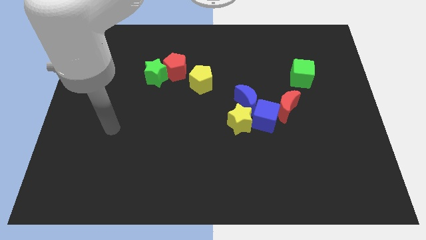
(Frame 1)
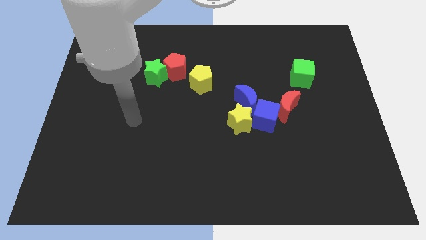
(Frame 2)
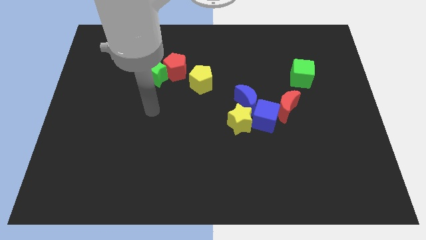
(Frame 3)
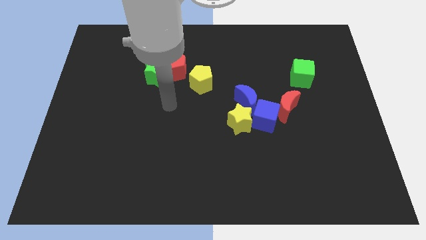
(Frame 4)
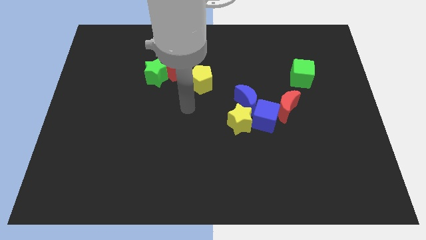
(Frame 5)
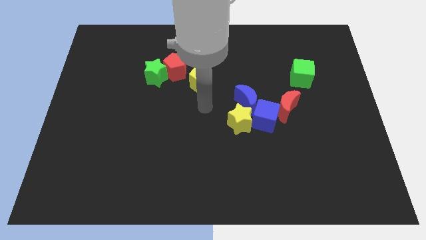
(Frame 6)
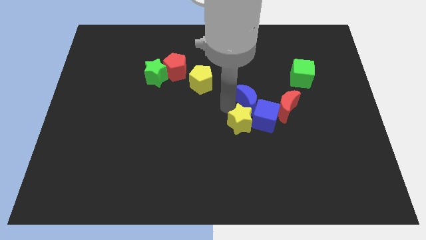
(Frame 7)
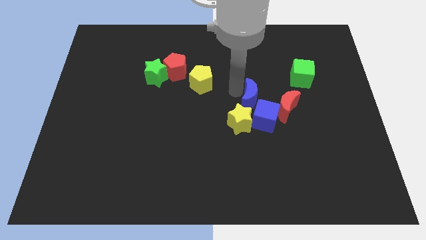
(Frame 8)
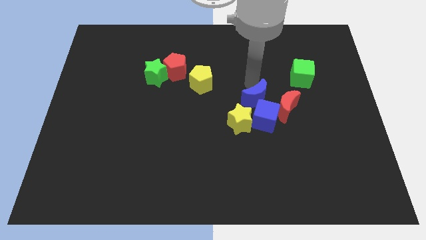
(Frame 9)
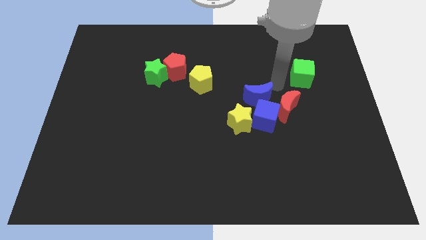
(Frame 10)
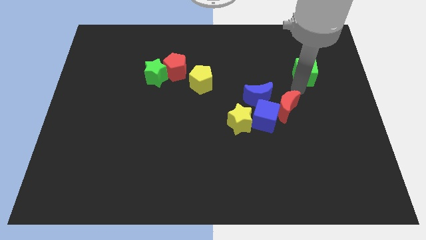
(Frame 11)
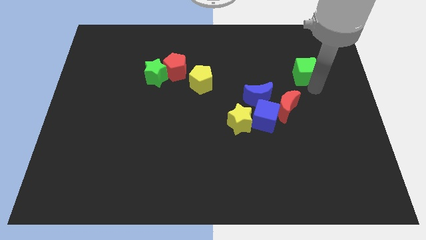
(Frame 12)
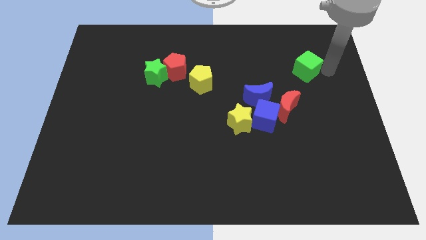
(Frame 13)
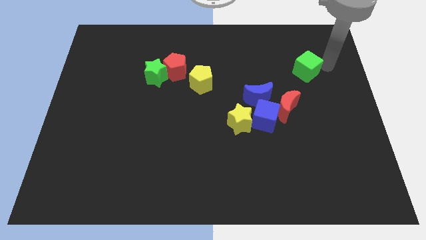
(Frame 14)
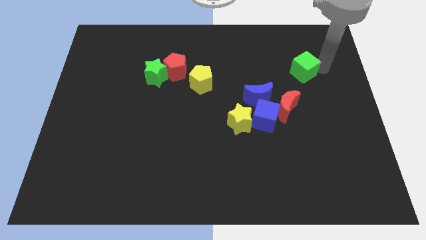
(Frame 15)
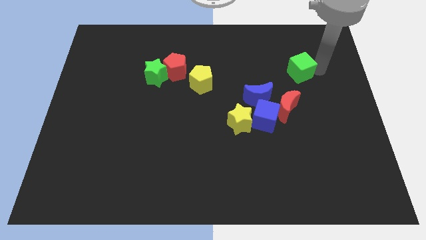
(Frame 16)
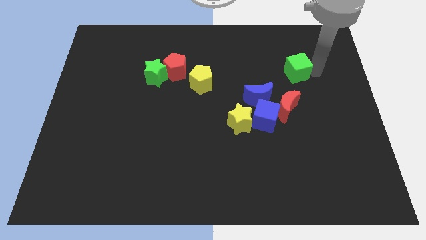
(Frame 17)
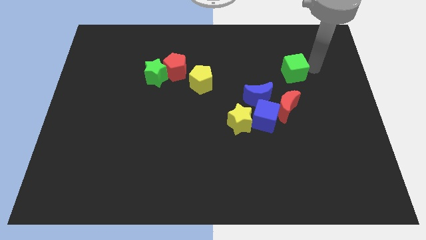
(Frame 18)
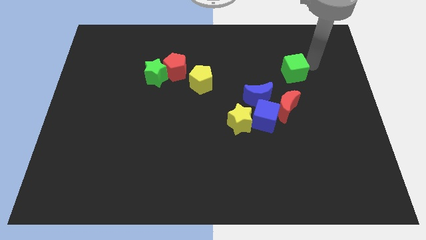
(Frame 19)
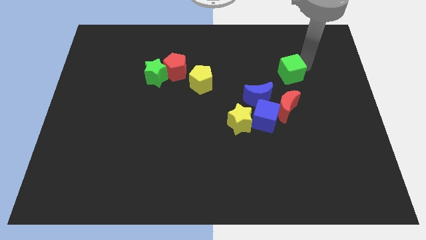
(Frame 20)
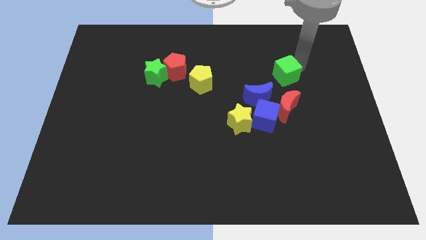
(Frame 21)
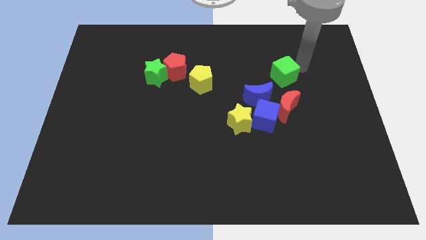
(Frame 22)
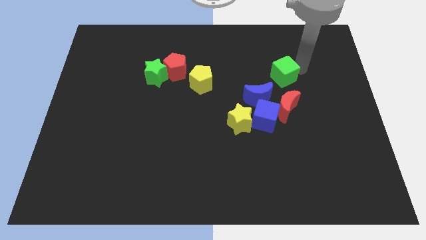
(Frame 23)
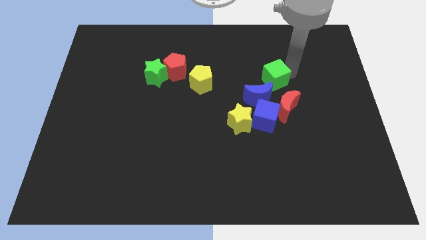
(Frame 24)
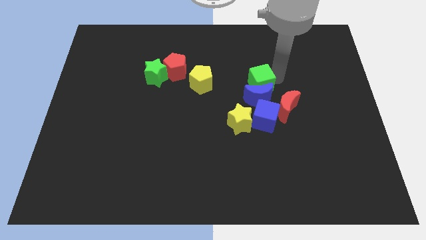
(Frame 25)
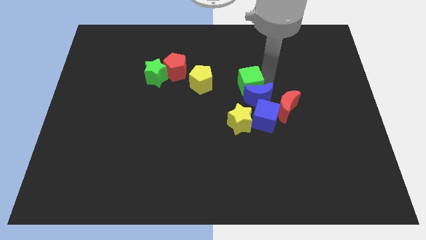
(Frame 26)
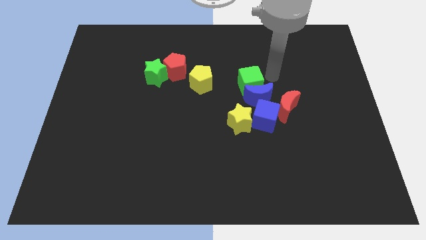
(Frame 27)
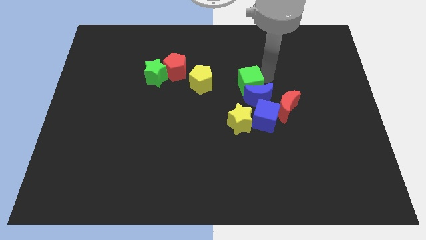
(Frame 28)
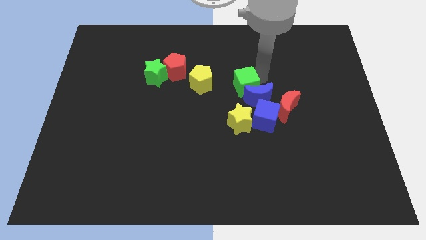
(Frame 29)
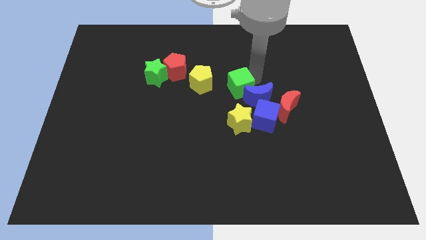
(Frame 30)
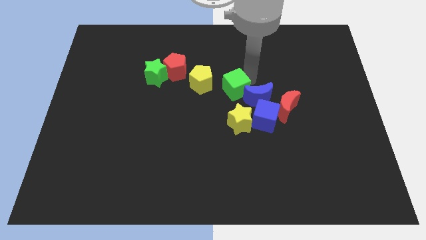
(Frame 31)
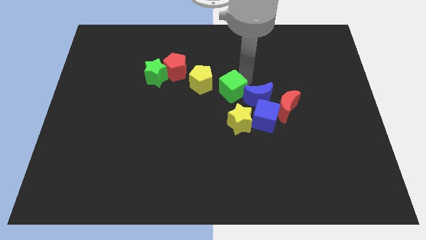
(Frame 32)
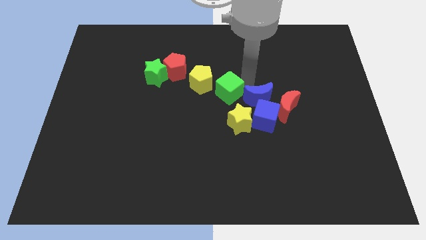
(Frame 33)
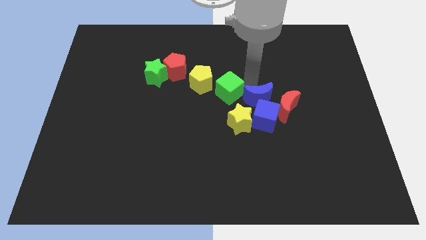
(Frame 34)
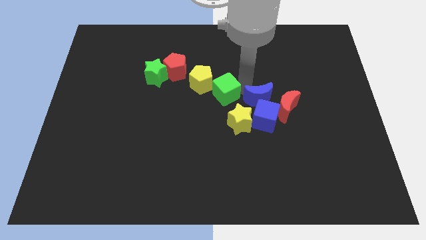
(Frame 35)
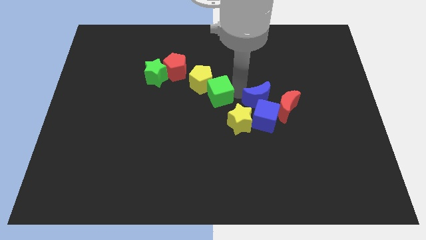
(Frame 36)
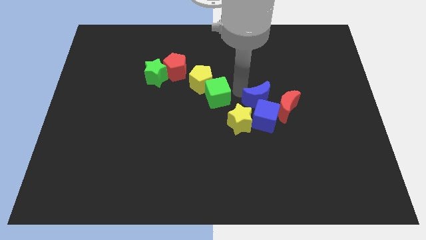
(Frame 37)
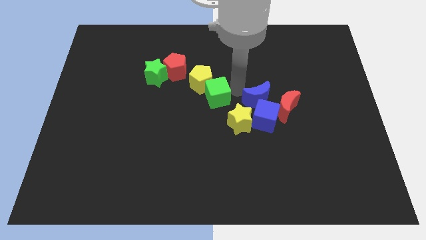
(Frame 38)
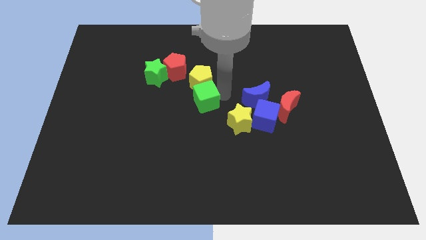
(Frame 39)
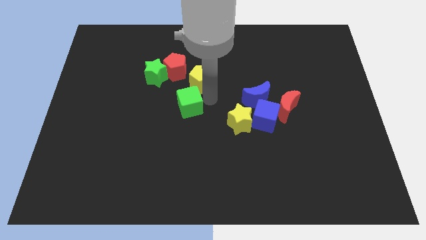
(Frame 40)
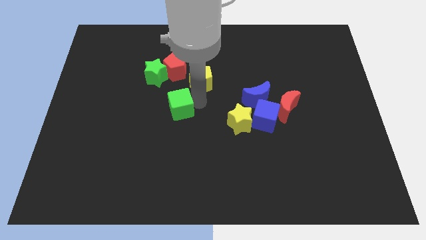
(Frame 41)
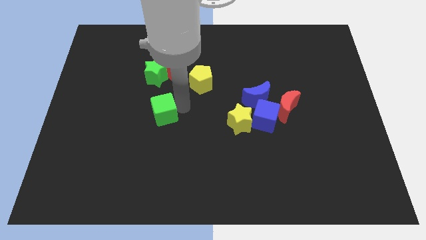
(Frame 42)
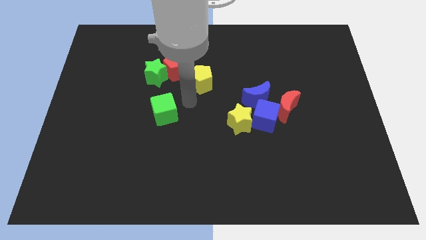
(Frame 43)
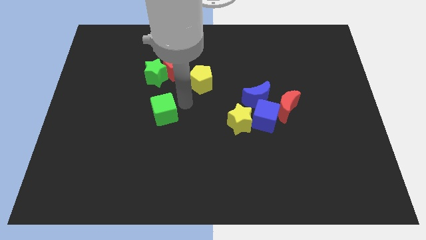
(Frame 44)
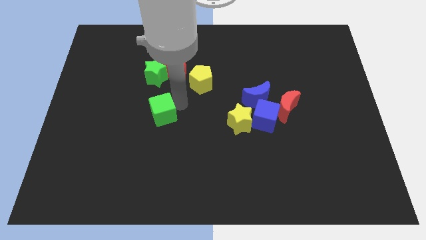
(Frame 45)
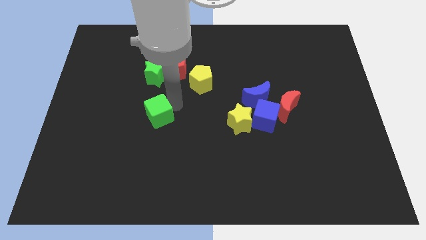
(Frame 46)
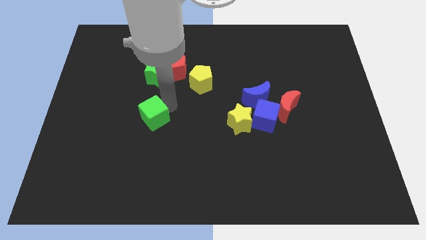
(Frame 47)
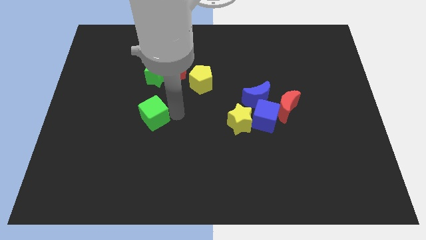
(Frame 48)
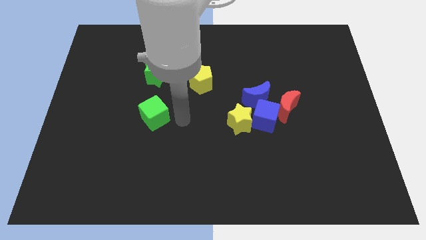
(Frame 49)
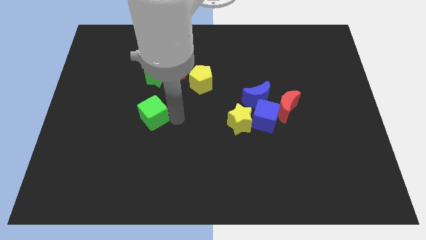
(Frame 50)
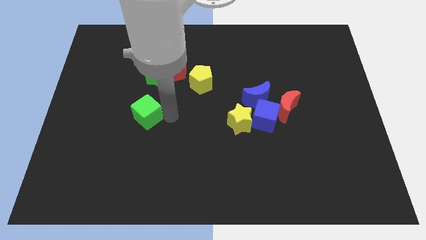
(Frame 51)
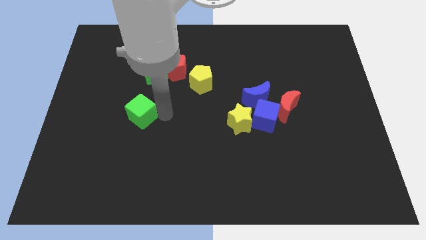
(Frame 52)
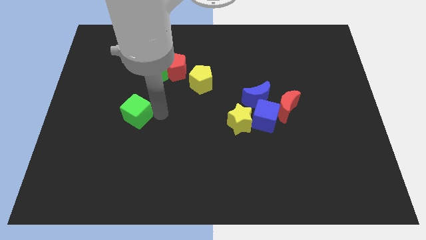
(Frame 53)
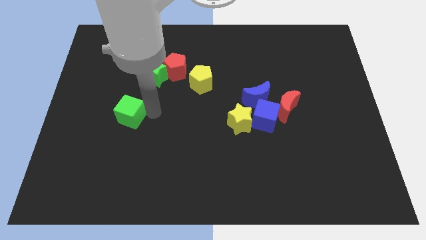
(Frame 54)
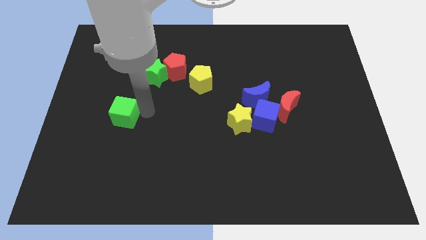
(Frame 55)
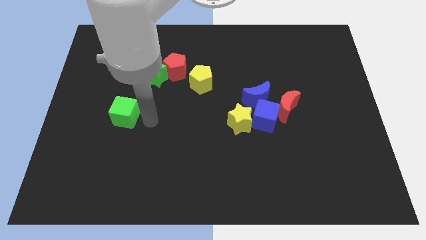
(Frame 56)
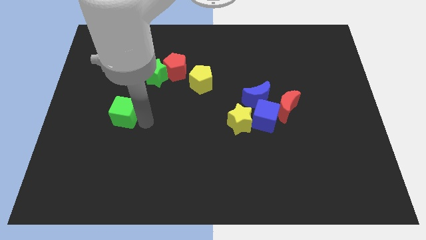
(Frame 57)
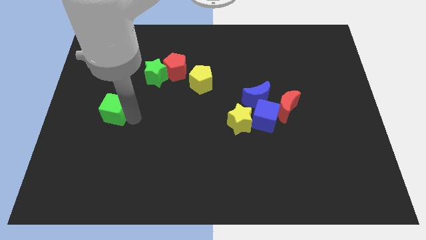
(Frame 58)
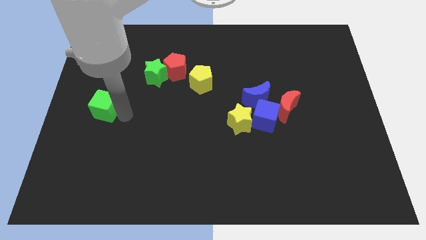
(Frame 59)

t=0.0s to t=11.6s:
move the green cube to the center left

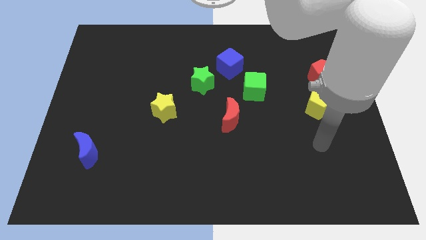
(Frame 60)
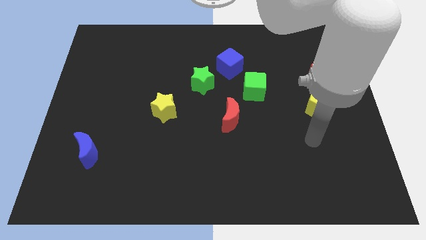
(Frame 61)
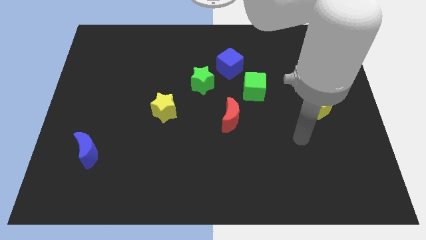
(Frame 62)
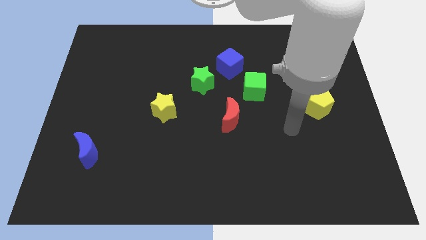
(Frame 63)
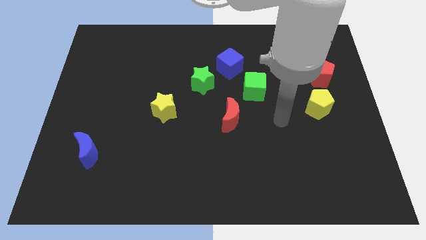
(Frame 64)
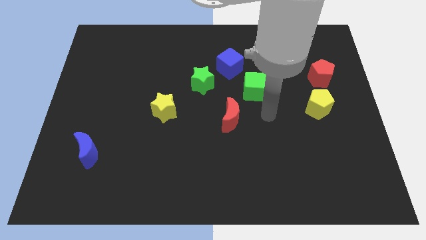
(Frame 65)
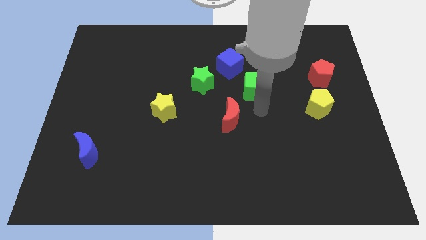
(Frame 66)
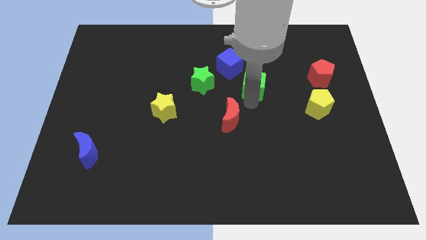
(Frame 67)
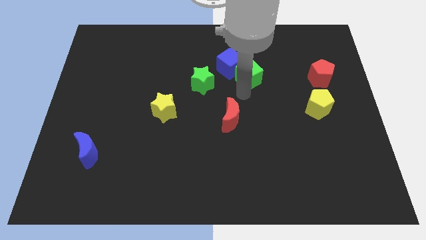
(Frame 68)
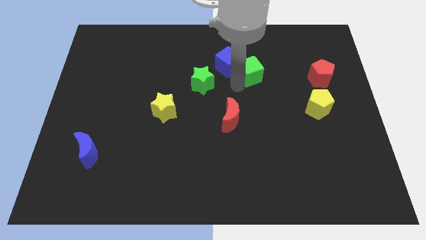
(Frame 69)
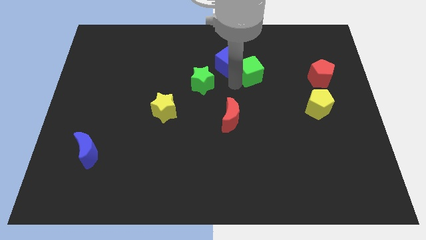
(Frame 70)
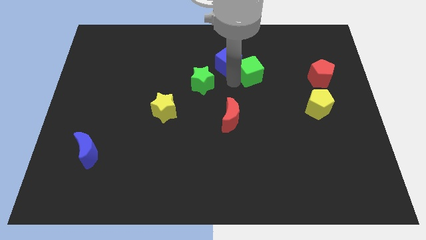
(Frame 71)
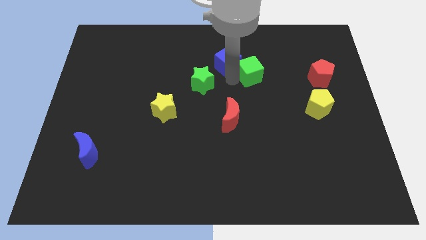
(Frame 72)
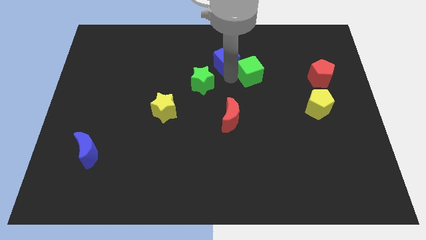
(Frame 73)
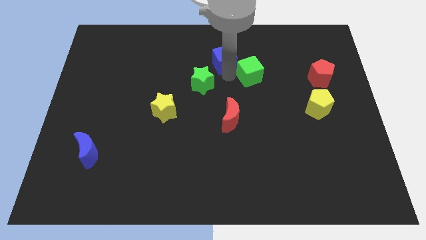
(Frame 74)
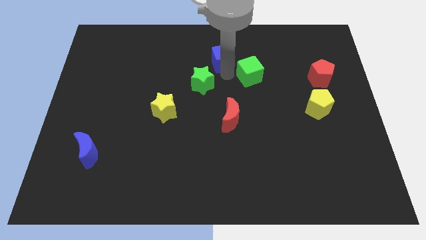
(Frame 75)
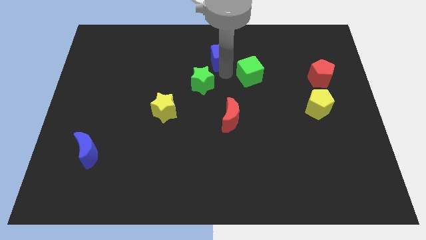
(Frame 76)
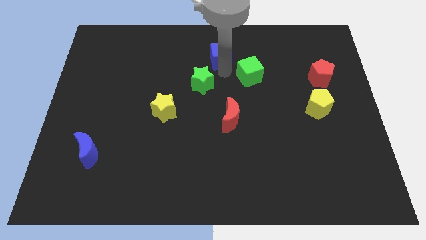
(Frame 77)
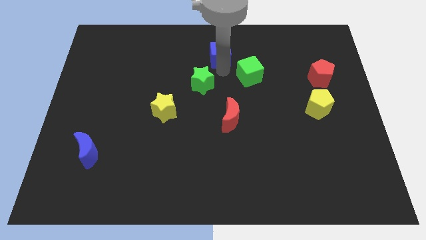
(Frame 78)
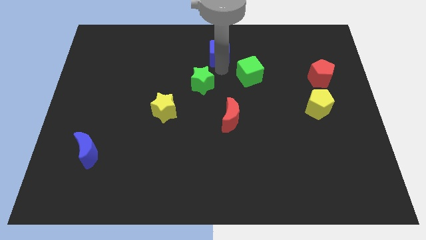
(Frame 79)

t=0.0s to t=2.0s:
put the blue cube to the top

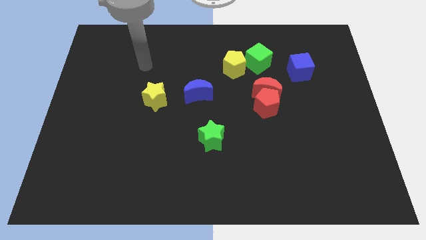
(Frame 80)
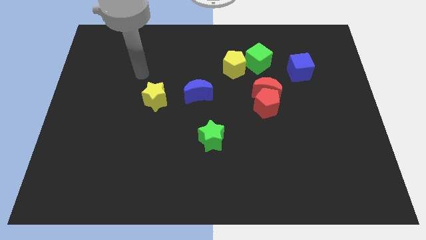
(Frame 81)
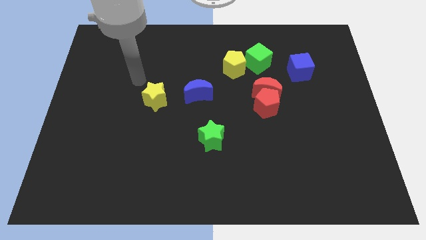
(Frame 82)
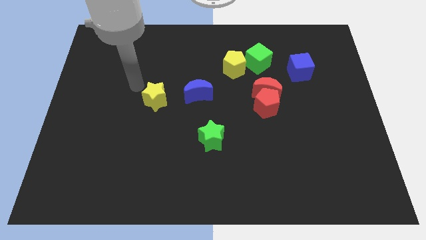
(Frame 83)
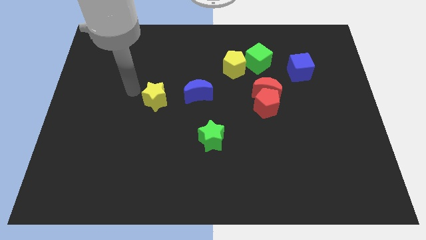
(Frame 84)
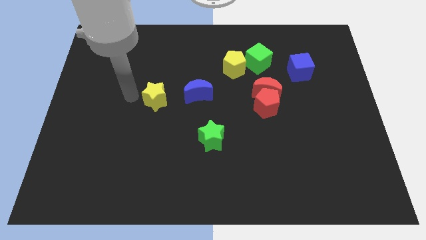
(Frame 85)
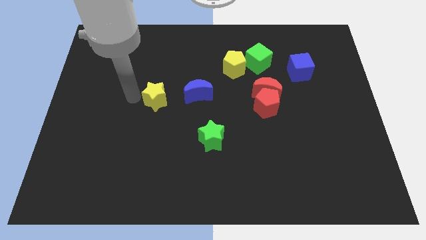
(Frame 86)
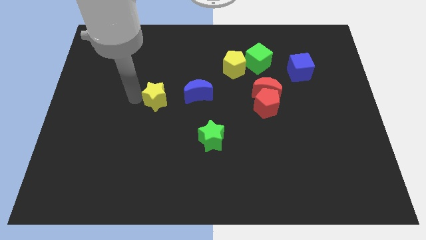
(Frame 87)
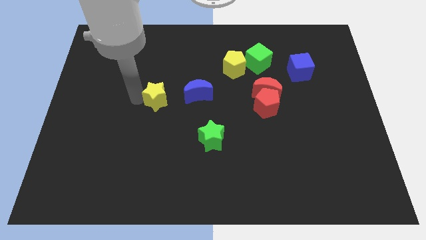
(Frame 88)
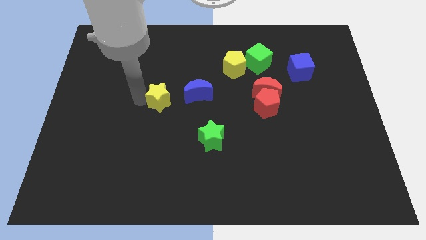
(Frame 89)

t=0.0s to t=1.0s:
put the yellow star to the middle
